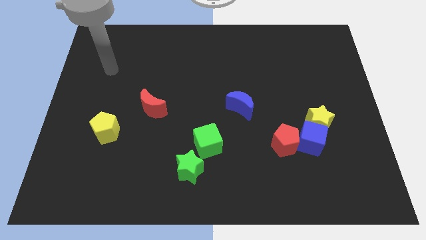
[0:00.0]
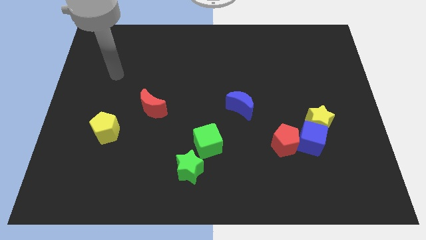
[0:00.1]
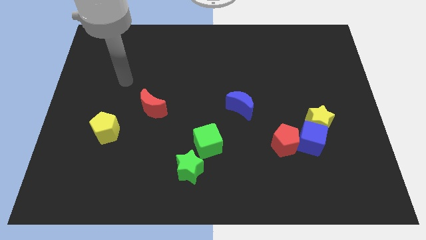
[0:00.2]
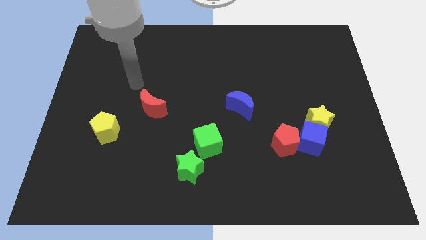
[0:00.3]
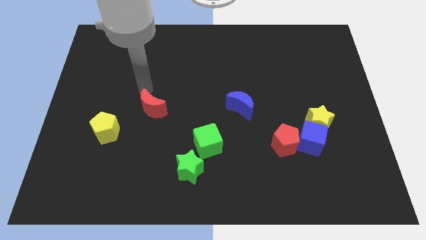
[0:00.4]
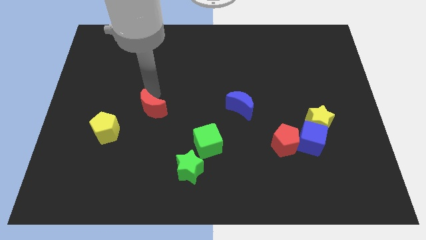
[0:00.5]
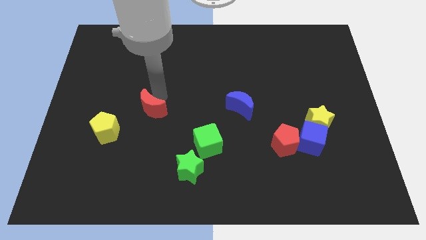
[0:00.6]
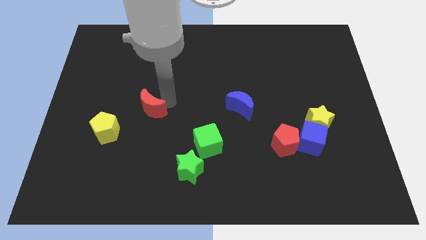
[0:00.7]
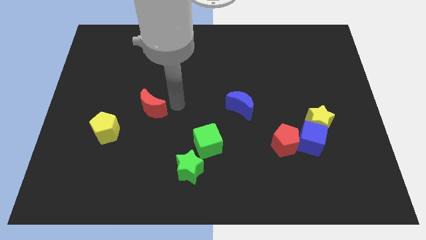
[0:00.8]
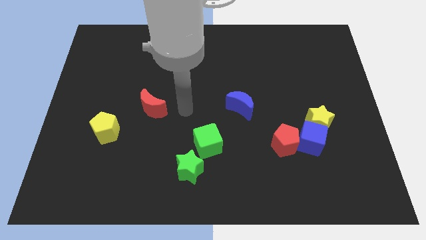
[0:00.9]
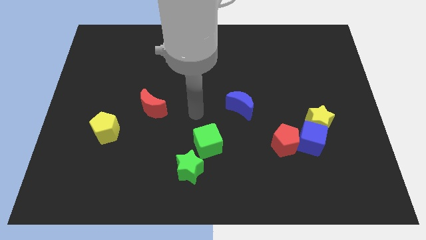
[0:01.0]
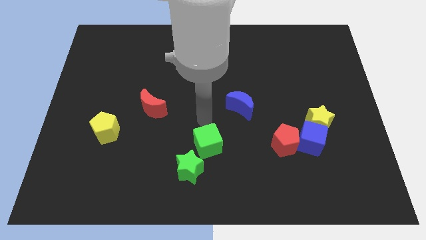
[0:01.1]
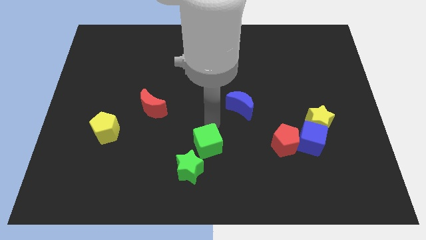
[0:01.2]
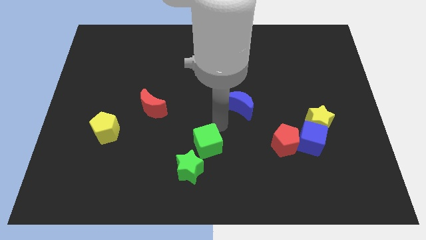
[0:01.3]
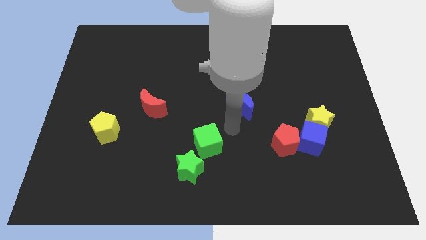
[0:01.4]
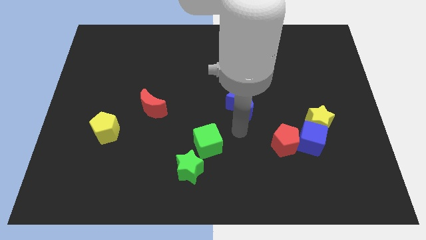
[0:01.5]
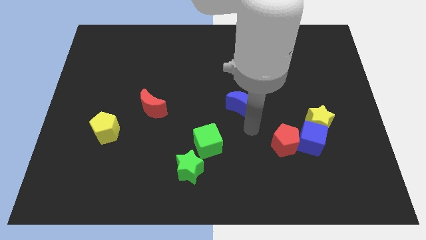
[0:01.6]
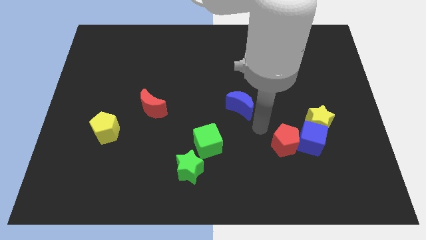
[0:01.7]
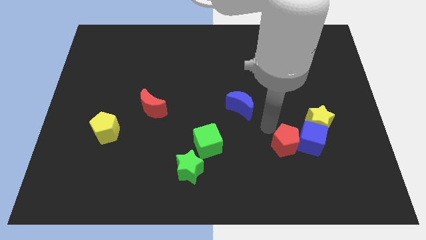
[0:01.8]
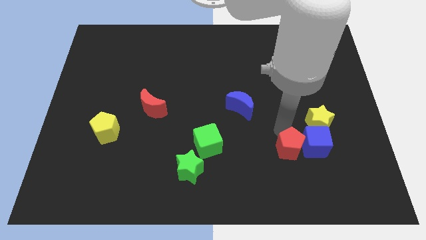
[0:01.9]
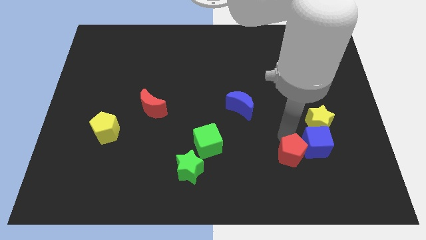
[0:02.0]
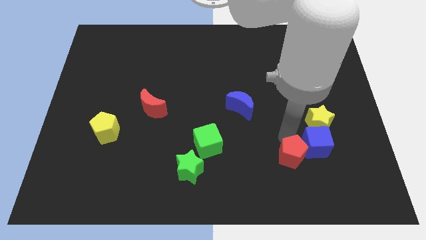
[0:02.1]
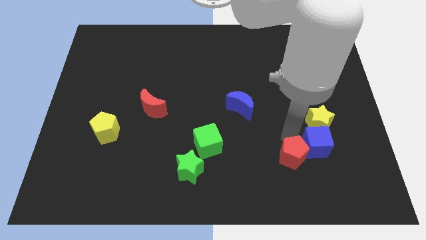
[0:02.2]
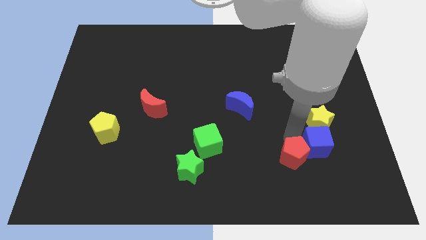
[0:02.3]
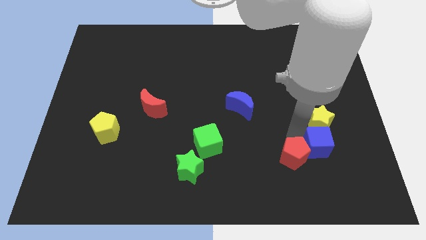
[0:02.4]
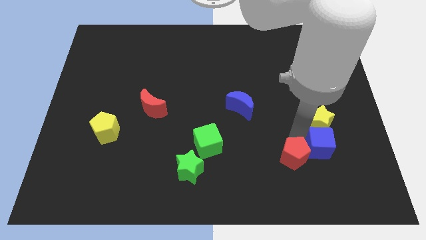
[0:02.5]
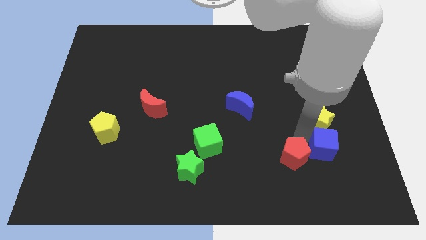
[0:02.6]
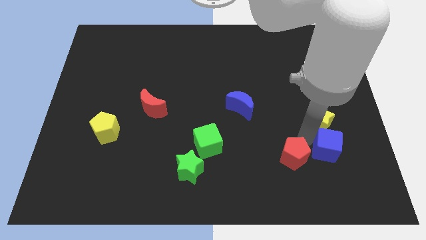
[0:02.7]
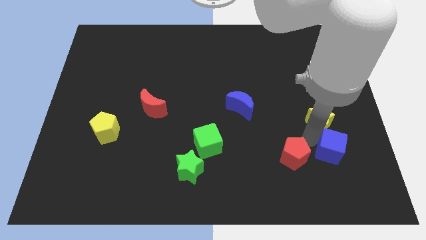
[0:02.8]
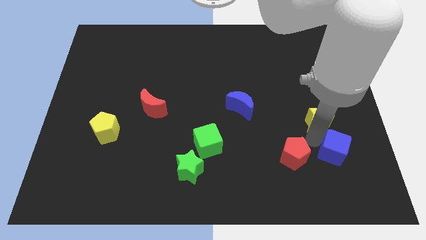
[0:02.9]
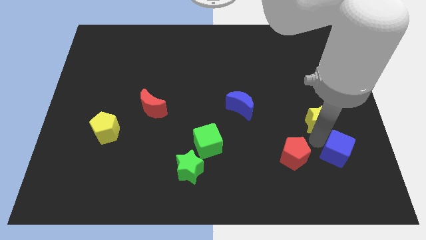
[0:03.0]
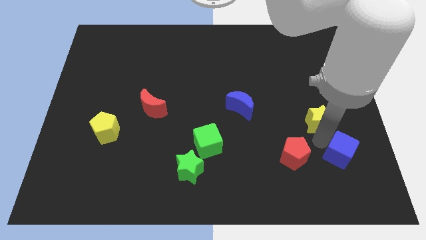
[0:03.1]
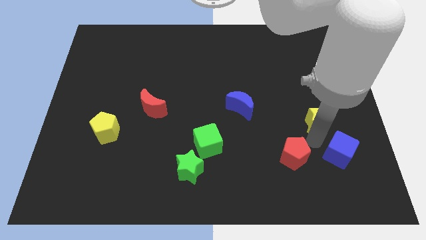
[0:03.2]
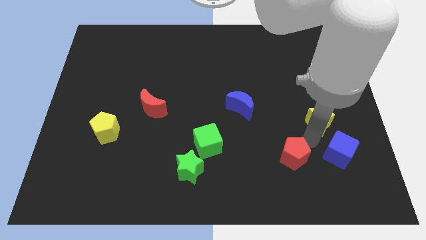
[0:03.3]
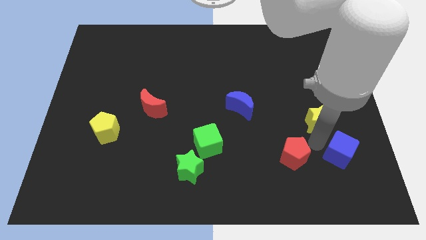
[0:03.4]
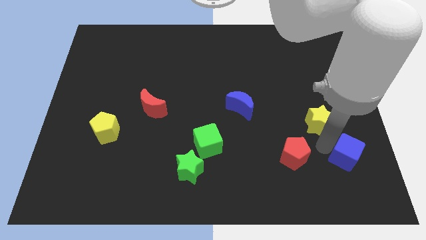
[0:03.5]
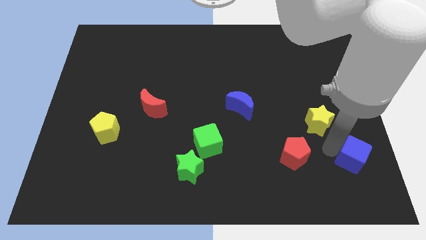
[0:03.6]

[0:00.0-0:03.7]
pull the blue cube apart from the yellow star and red pentagon

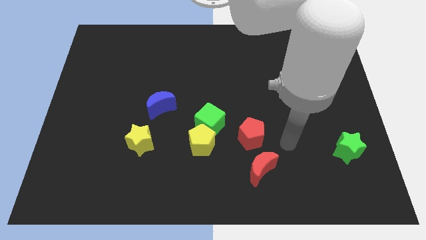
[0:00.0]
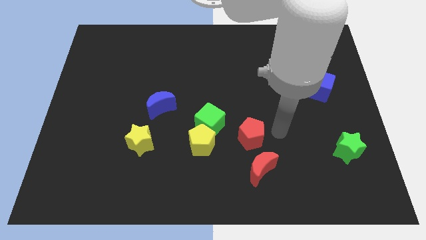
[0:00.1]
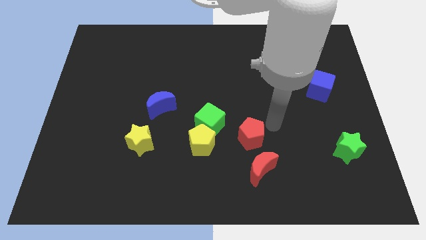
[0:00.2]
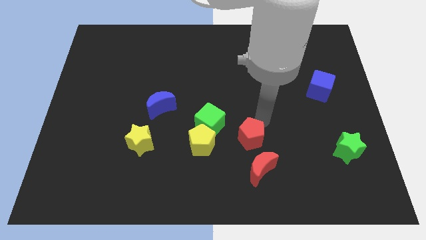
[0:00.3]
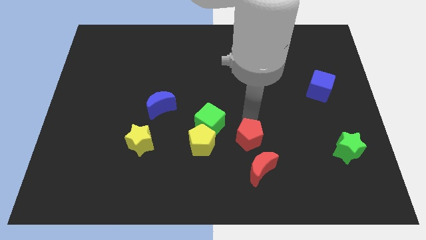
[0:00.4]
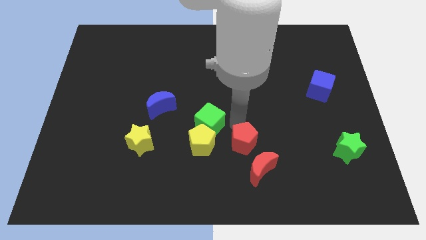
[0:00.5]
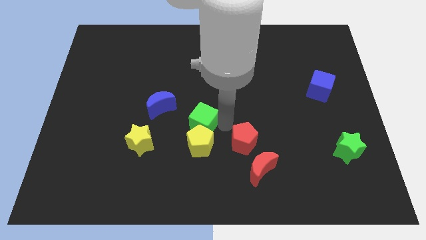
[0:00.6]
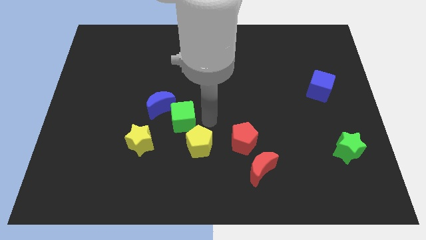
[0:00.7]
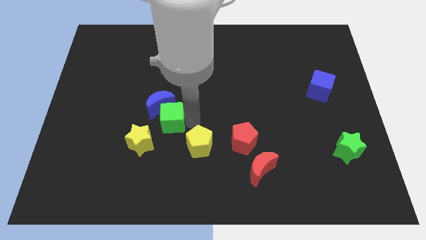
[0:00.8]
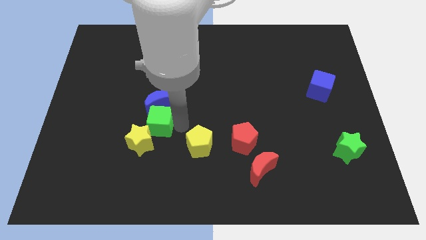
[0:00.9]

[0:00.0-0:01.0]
separate the yellow pentagon from the green cube

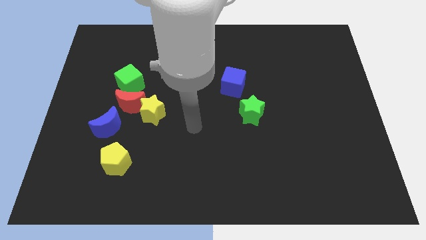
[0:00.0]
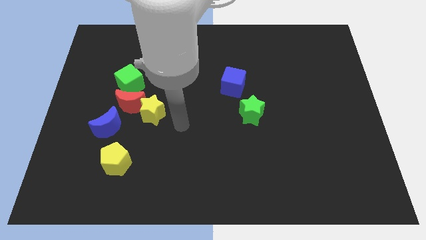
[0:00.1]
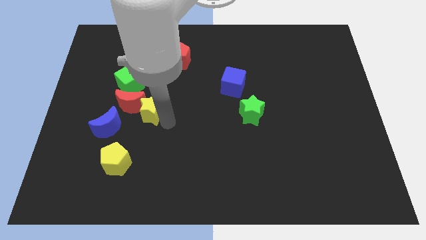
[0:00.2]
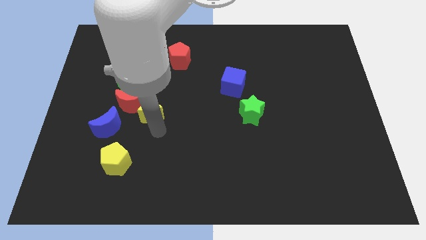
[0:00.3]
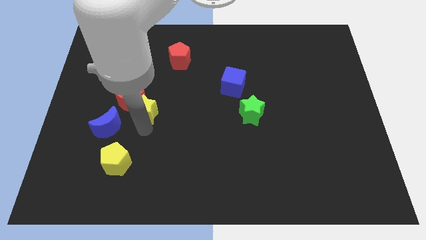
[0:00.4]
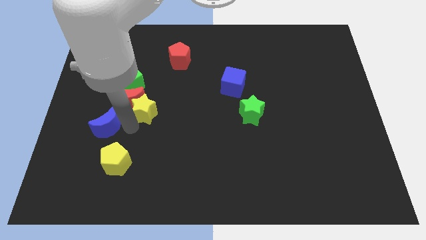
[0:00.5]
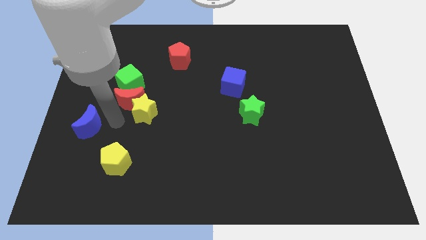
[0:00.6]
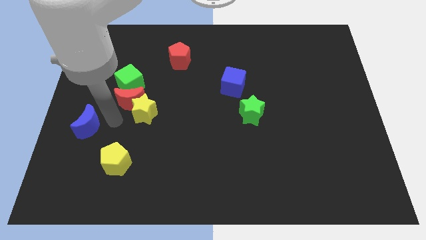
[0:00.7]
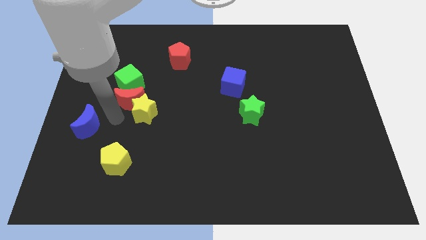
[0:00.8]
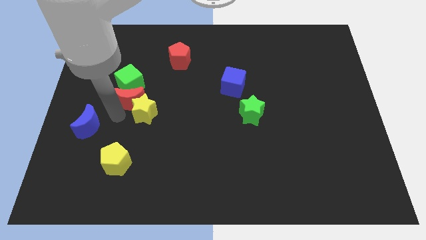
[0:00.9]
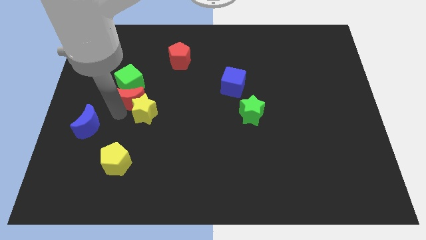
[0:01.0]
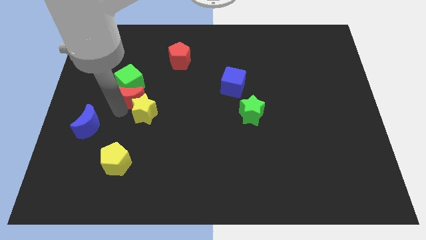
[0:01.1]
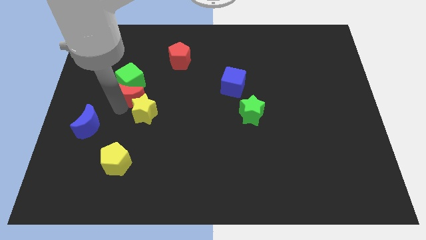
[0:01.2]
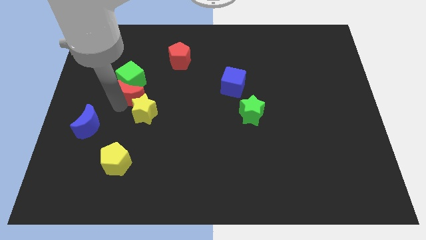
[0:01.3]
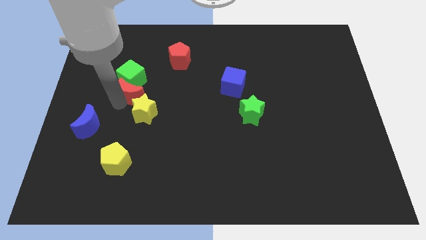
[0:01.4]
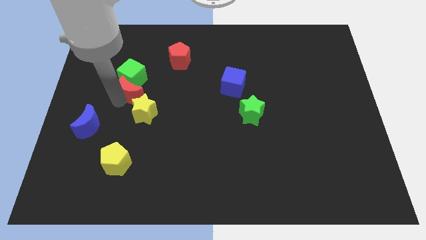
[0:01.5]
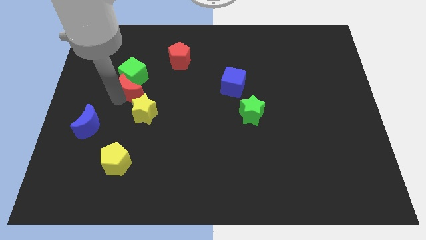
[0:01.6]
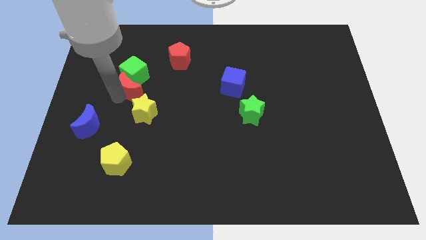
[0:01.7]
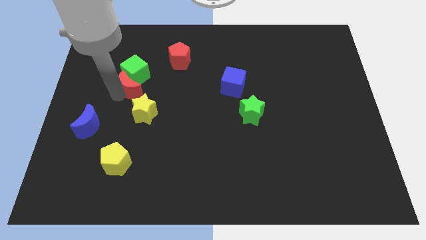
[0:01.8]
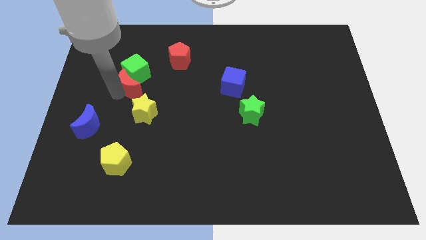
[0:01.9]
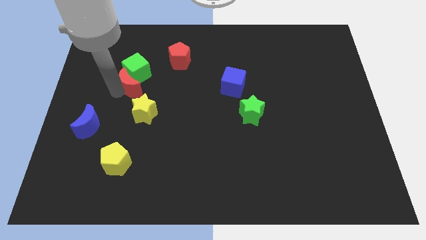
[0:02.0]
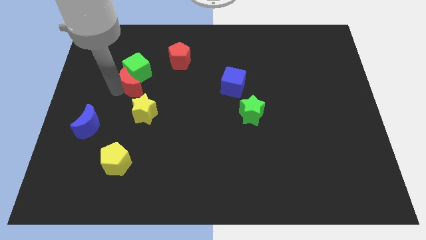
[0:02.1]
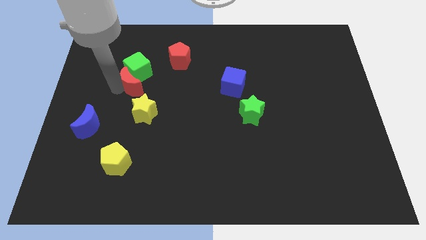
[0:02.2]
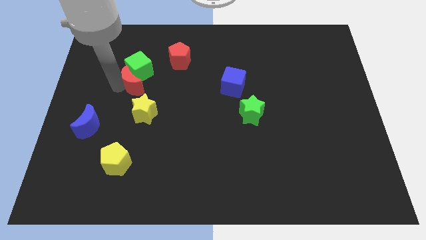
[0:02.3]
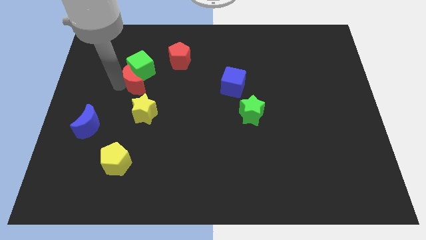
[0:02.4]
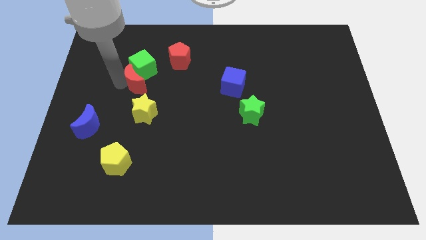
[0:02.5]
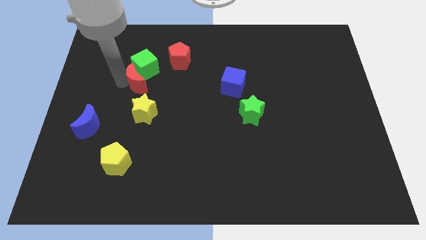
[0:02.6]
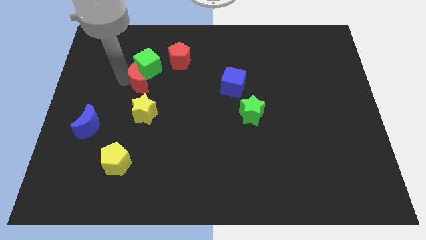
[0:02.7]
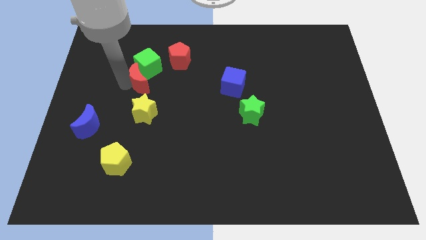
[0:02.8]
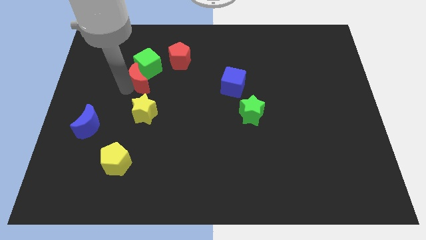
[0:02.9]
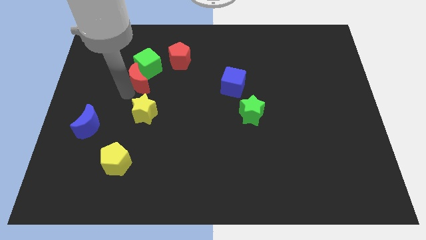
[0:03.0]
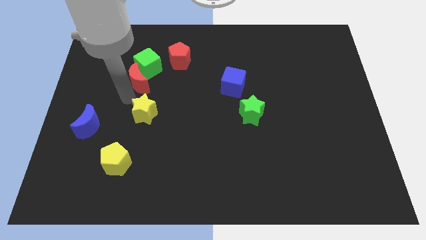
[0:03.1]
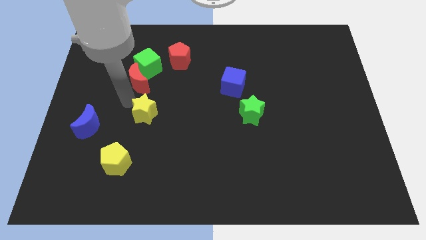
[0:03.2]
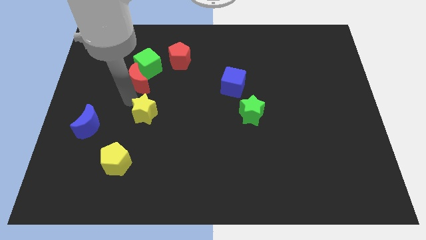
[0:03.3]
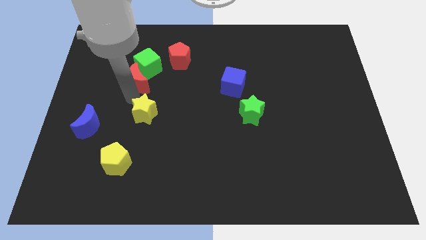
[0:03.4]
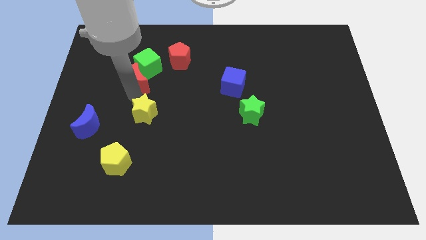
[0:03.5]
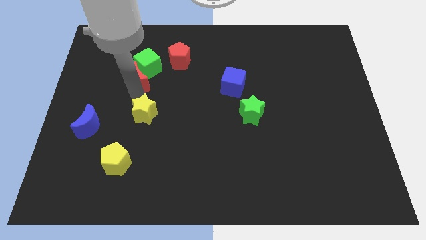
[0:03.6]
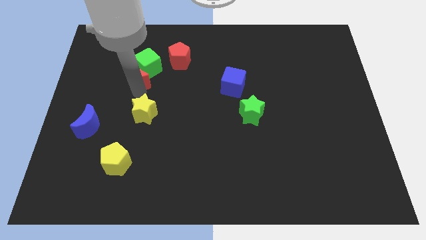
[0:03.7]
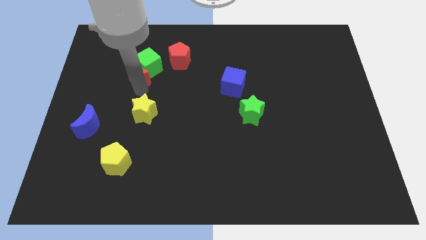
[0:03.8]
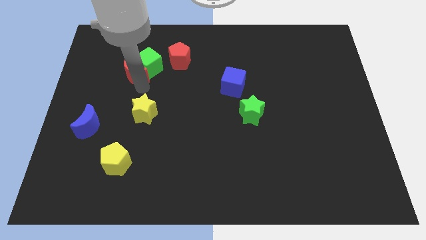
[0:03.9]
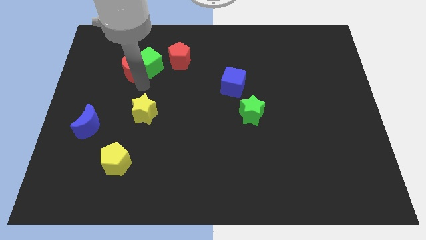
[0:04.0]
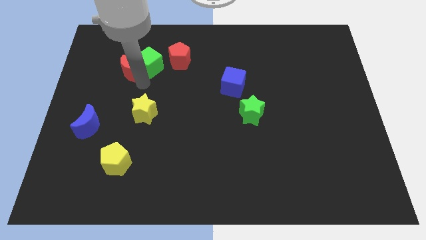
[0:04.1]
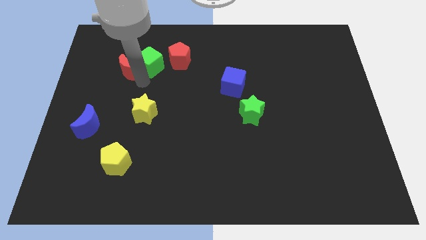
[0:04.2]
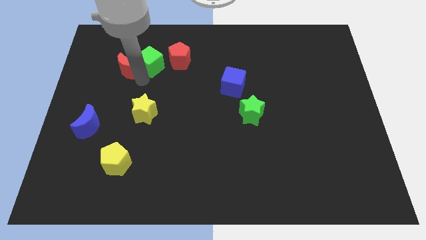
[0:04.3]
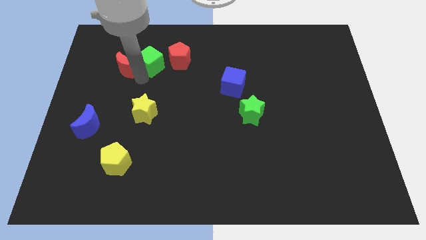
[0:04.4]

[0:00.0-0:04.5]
move the red moon away from the group of blocks

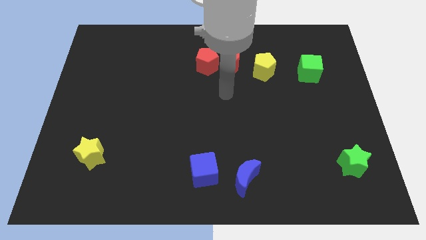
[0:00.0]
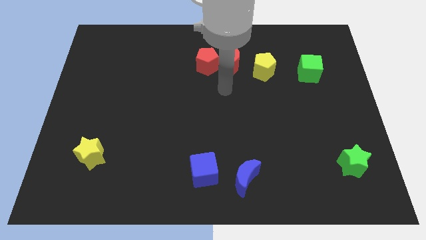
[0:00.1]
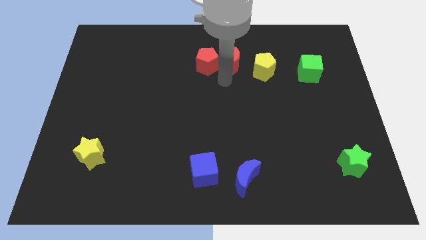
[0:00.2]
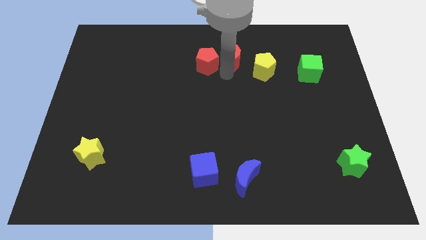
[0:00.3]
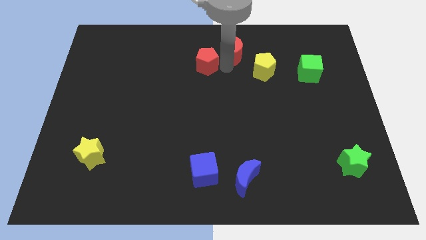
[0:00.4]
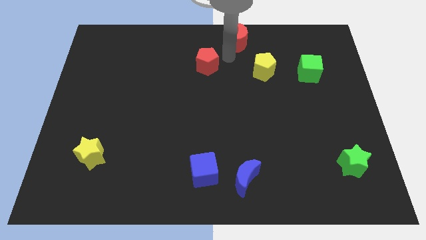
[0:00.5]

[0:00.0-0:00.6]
move the red pentagon away from the red moon
